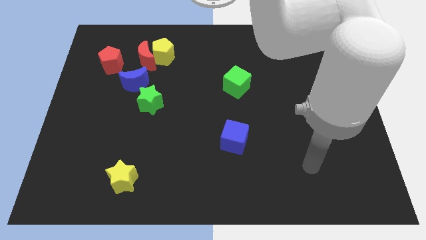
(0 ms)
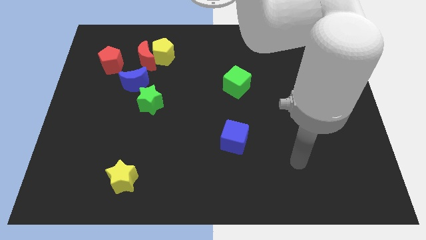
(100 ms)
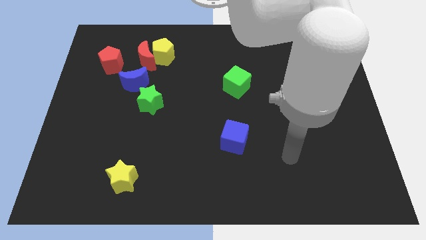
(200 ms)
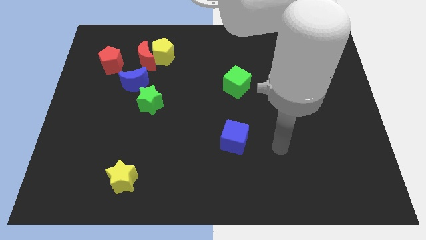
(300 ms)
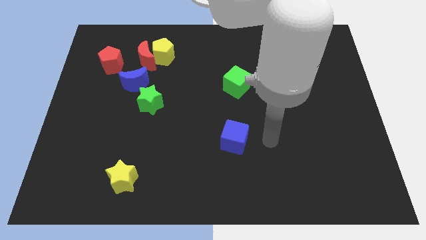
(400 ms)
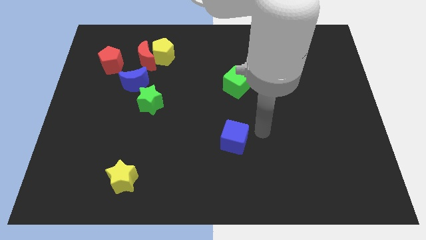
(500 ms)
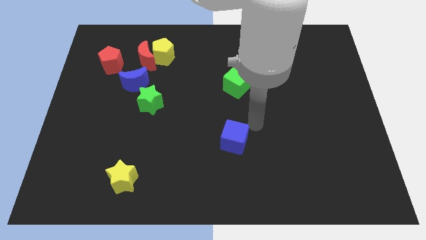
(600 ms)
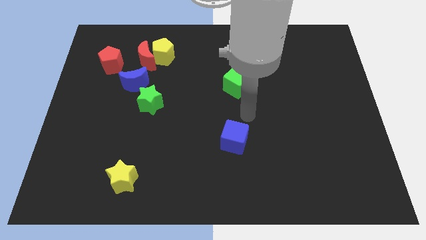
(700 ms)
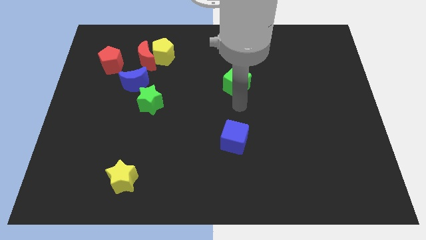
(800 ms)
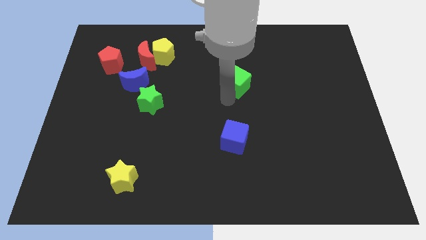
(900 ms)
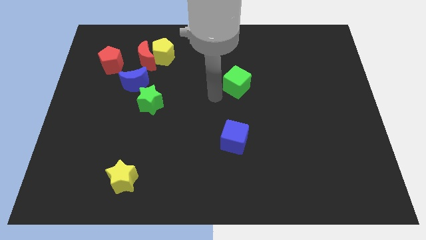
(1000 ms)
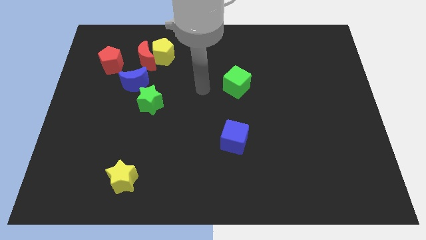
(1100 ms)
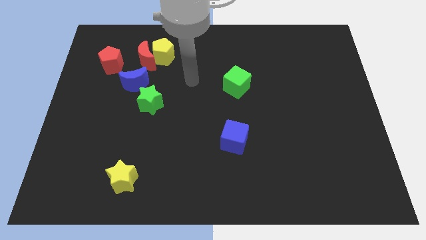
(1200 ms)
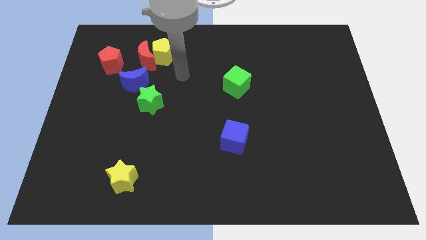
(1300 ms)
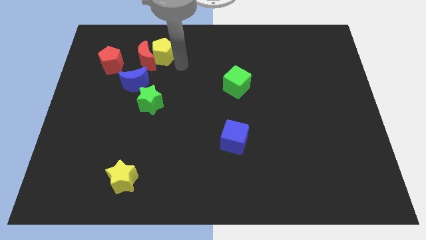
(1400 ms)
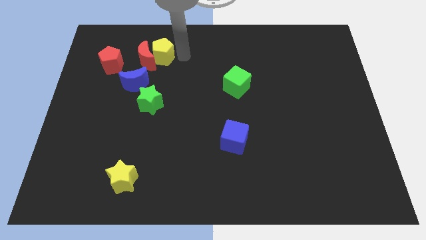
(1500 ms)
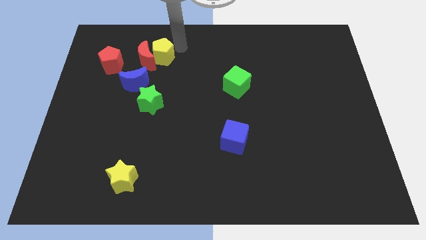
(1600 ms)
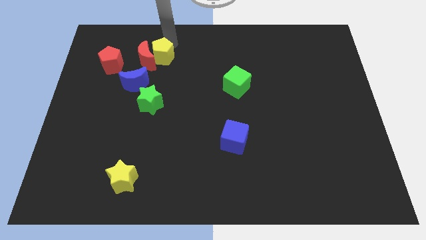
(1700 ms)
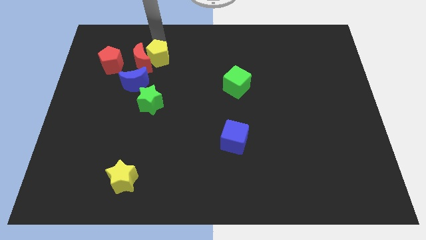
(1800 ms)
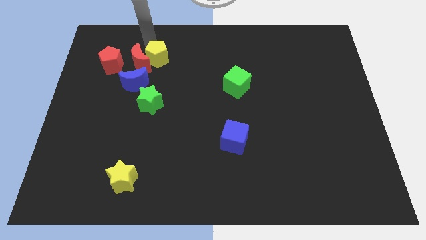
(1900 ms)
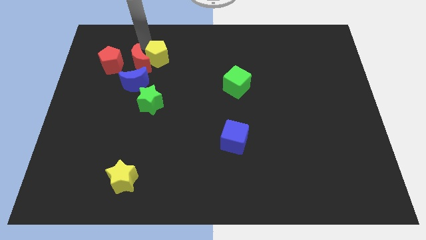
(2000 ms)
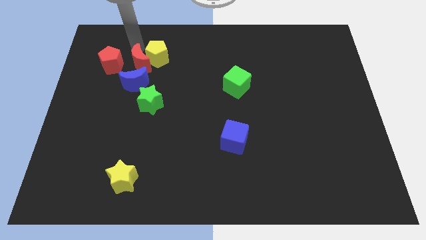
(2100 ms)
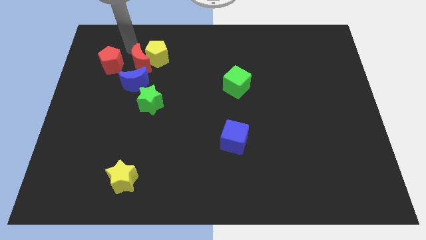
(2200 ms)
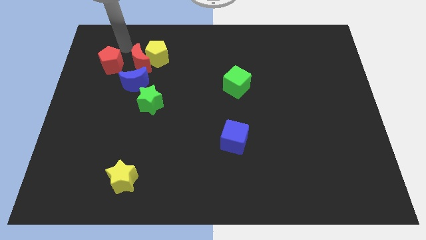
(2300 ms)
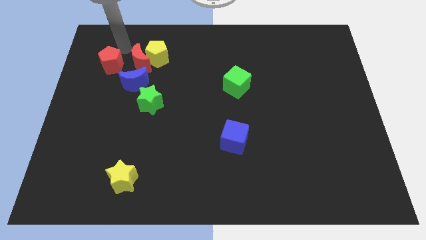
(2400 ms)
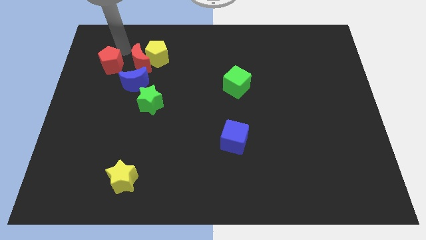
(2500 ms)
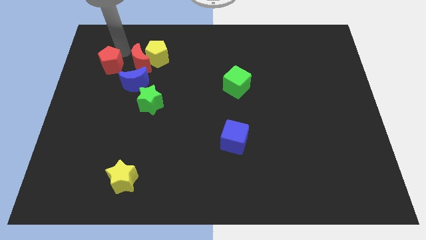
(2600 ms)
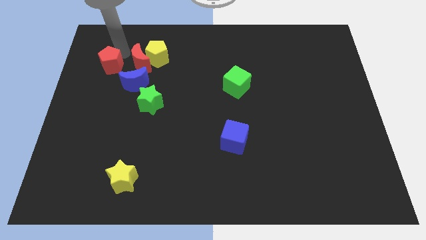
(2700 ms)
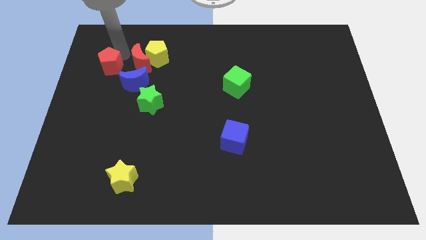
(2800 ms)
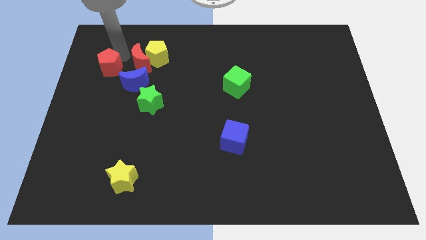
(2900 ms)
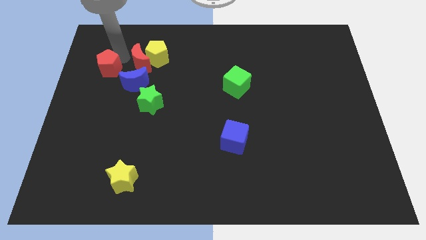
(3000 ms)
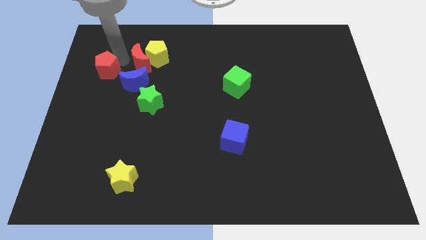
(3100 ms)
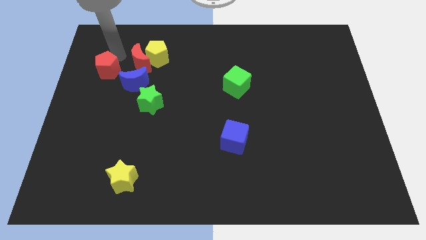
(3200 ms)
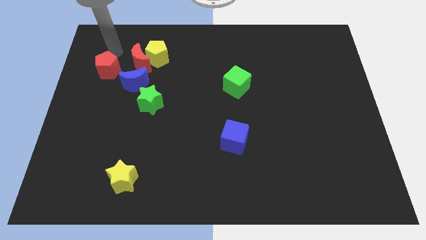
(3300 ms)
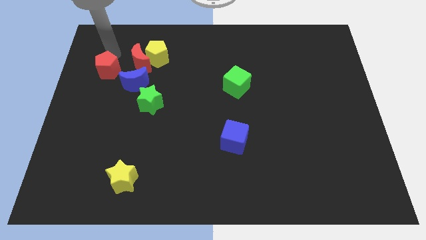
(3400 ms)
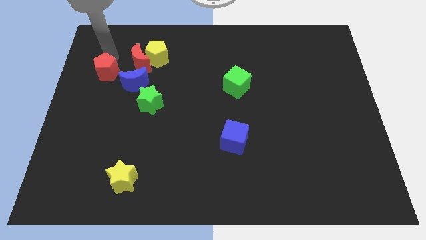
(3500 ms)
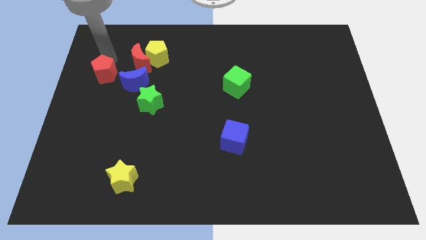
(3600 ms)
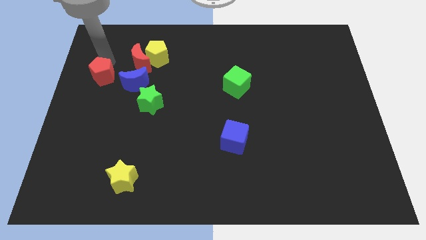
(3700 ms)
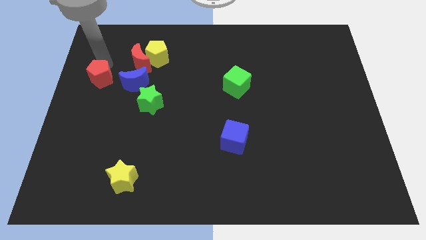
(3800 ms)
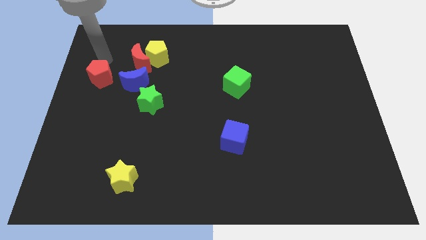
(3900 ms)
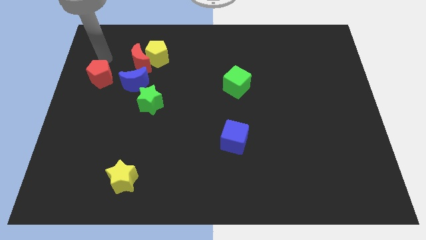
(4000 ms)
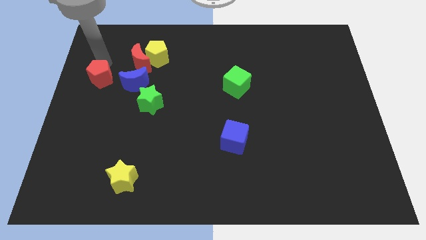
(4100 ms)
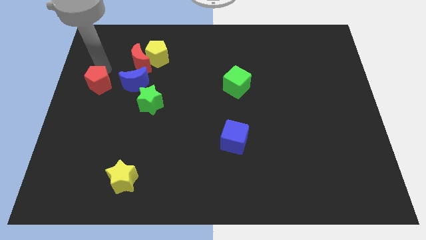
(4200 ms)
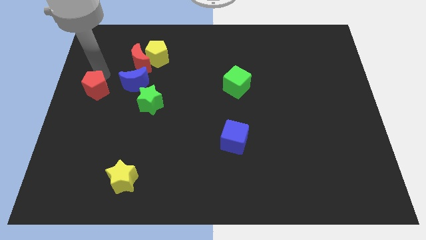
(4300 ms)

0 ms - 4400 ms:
slightly move the red pentagon downwards

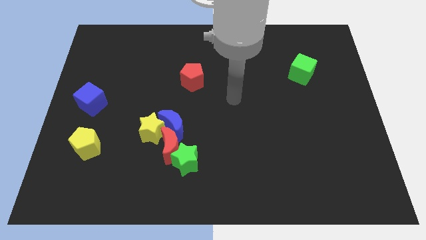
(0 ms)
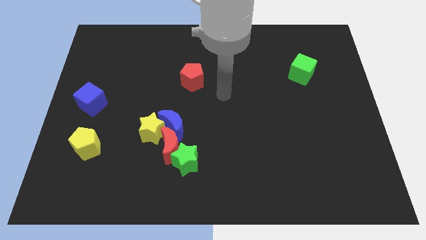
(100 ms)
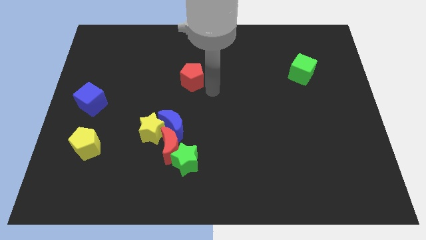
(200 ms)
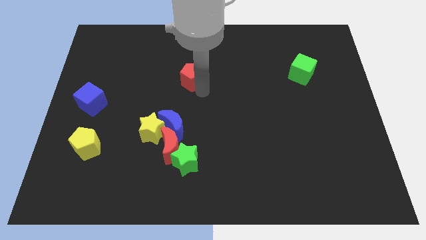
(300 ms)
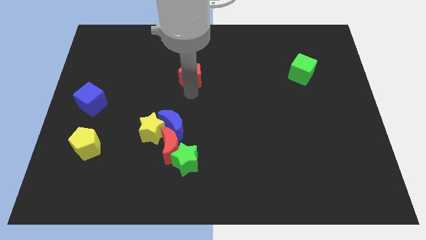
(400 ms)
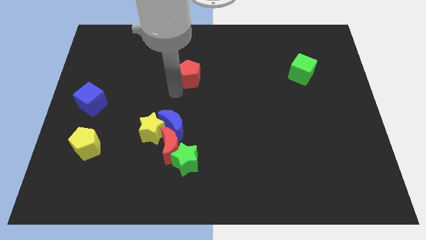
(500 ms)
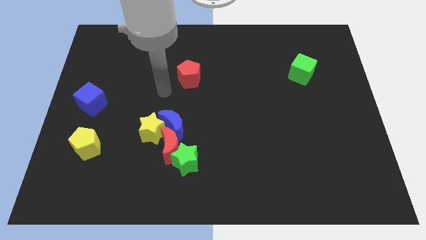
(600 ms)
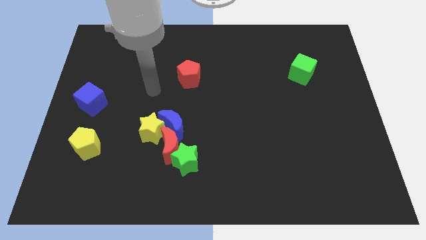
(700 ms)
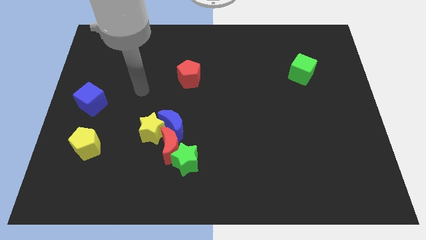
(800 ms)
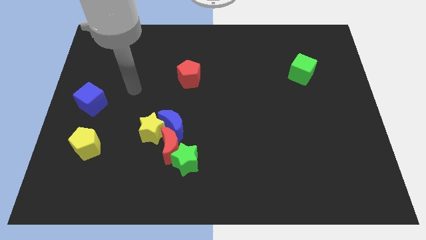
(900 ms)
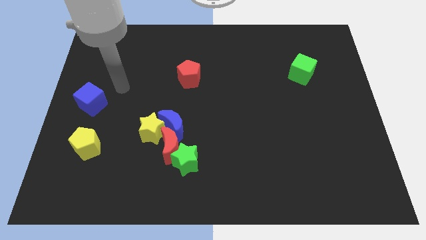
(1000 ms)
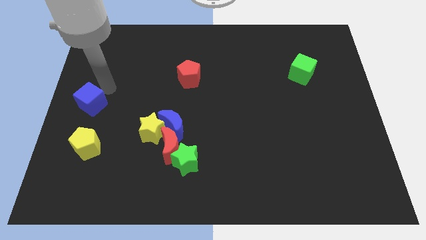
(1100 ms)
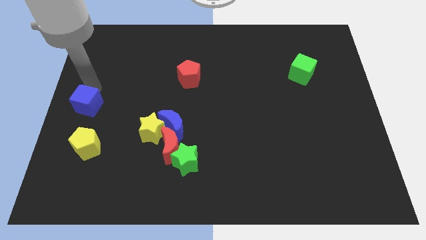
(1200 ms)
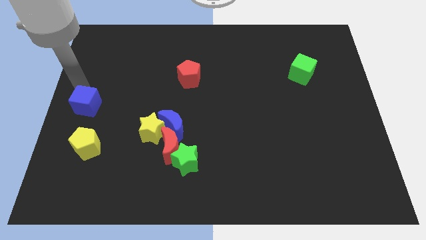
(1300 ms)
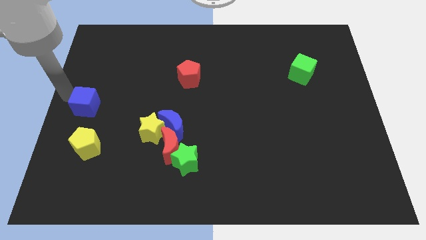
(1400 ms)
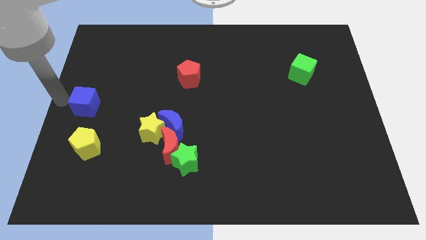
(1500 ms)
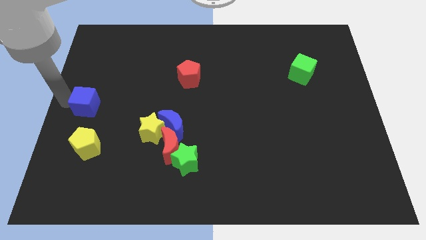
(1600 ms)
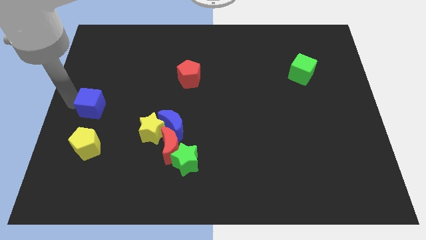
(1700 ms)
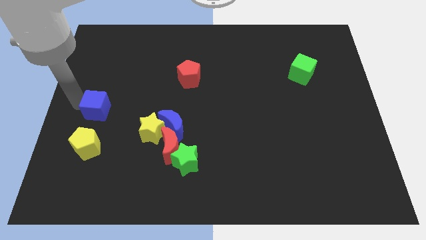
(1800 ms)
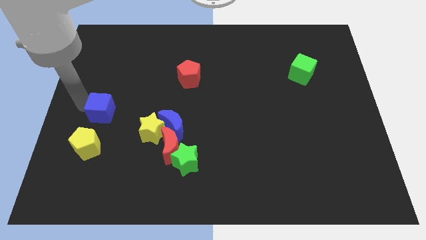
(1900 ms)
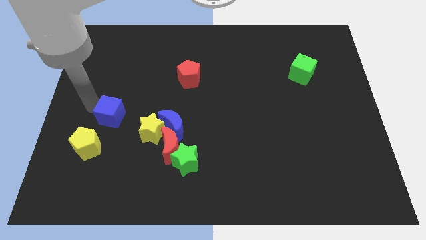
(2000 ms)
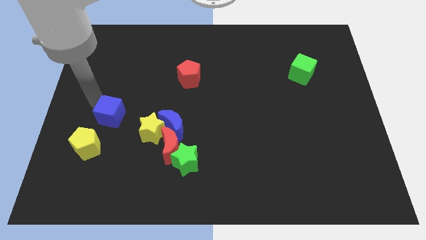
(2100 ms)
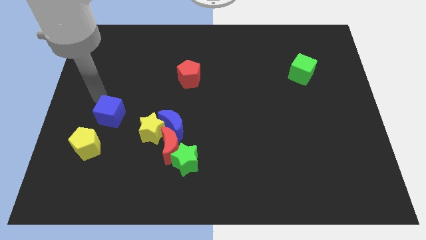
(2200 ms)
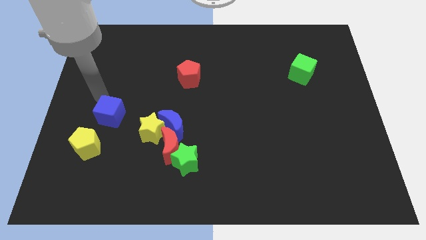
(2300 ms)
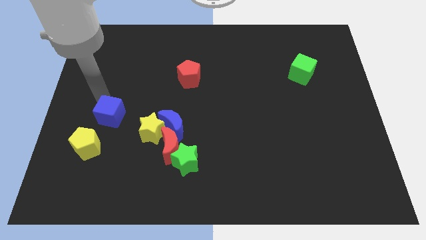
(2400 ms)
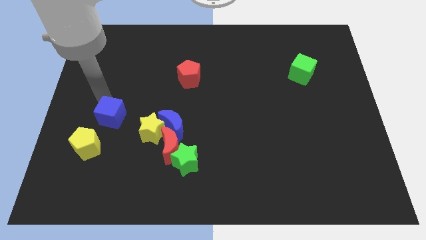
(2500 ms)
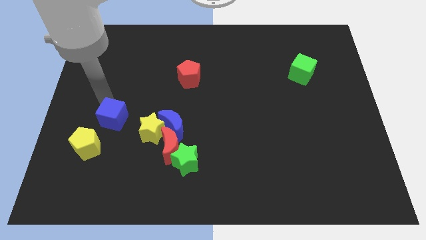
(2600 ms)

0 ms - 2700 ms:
slightly move the blue cube downwards and then to the right

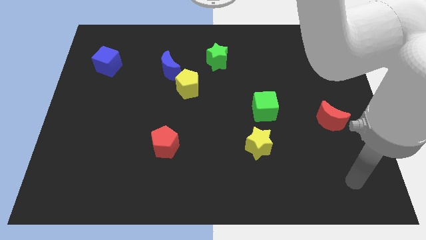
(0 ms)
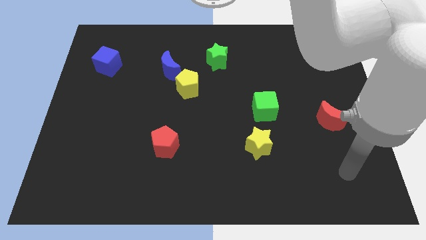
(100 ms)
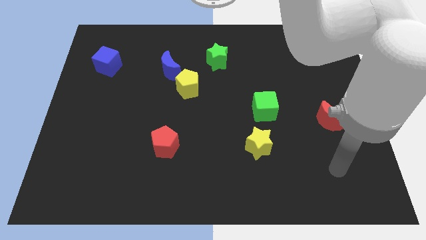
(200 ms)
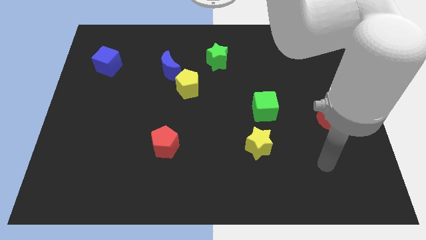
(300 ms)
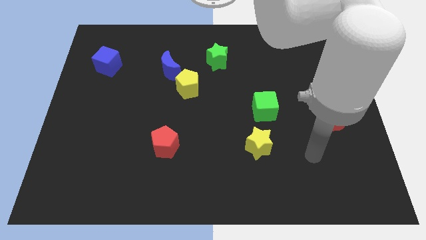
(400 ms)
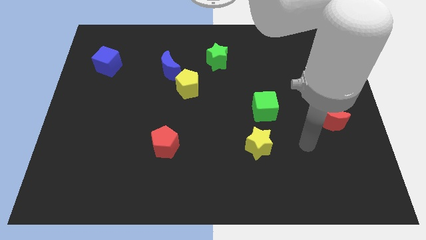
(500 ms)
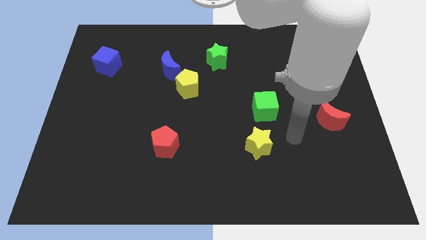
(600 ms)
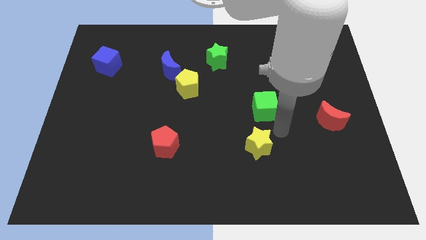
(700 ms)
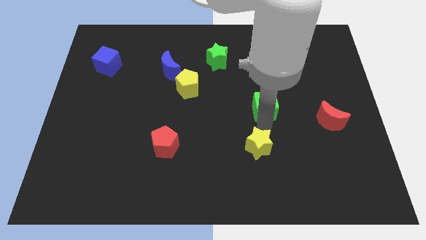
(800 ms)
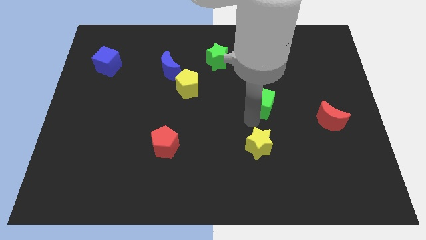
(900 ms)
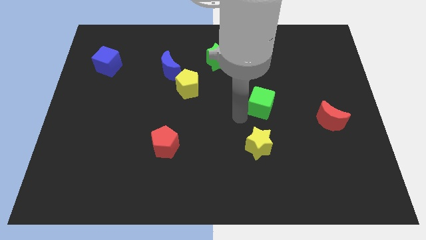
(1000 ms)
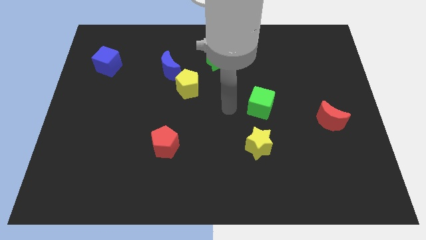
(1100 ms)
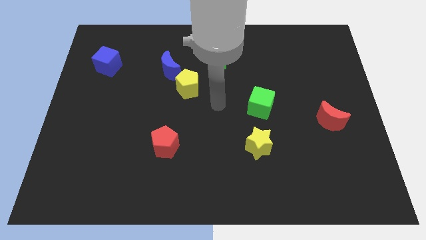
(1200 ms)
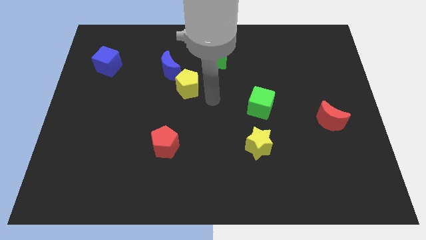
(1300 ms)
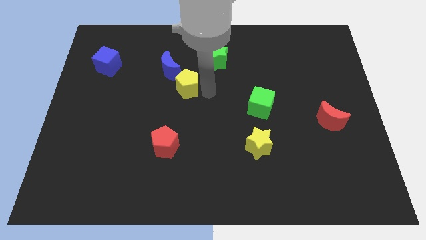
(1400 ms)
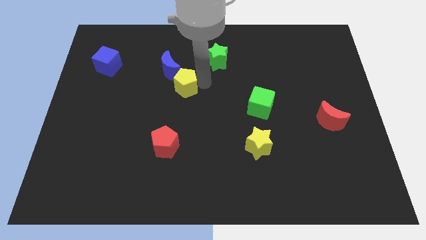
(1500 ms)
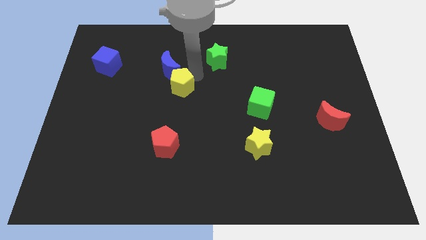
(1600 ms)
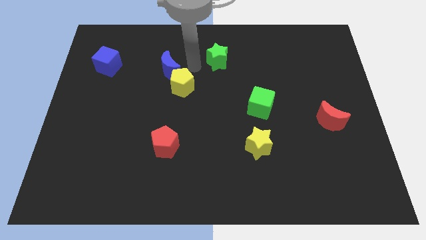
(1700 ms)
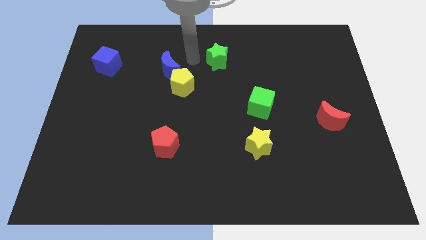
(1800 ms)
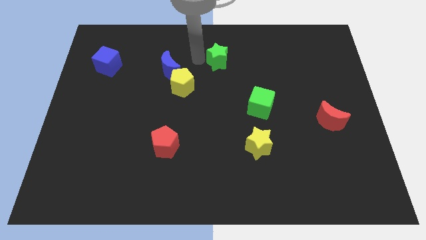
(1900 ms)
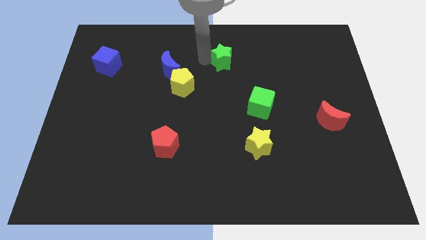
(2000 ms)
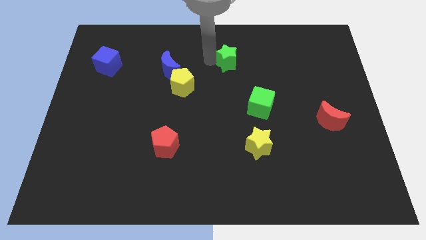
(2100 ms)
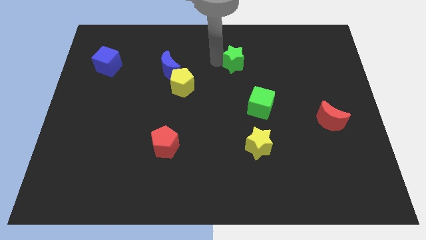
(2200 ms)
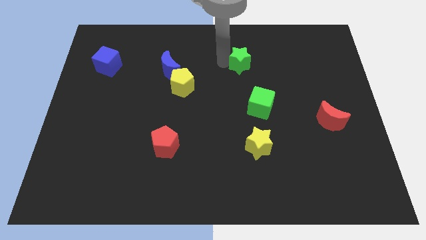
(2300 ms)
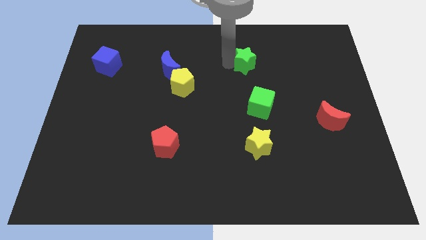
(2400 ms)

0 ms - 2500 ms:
slide the green star to the right slightly
